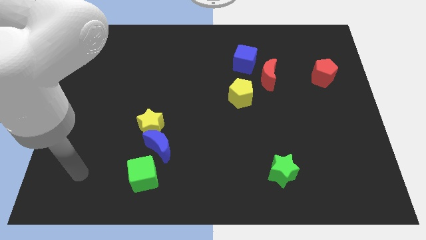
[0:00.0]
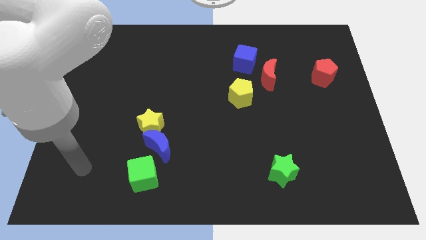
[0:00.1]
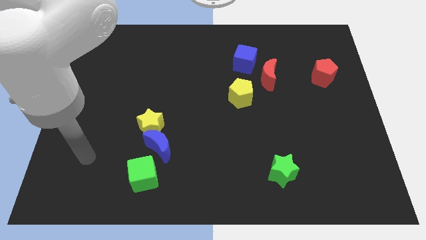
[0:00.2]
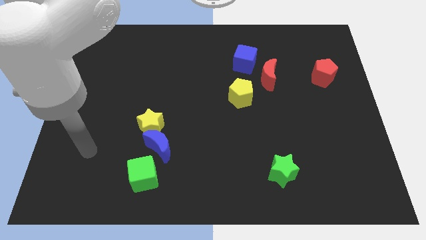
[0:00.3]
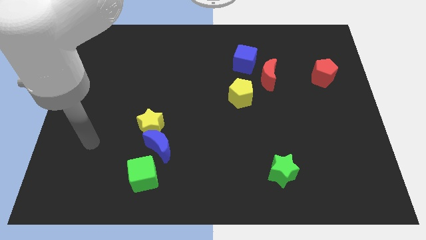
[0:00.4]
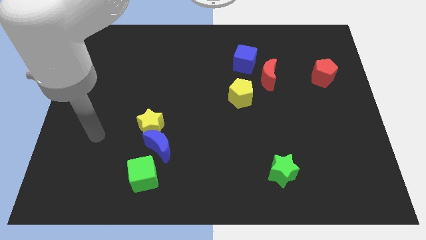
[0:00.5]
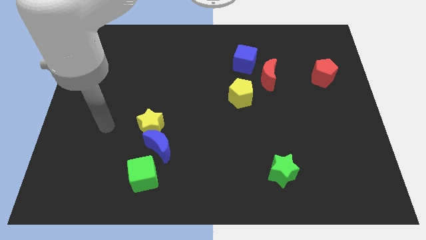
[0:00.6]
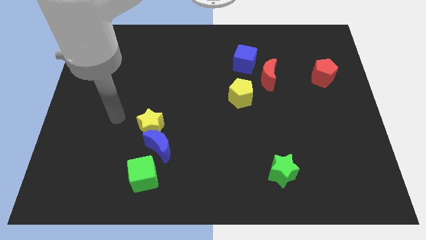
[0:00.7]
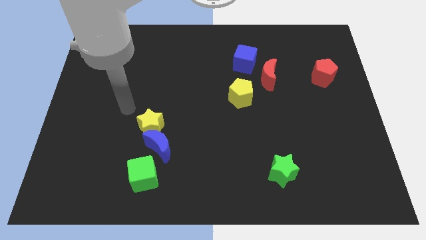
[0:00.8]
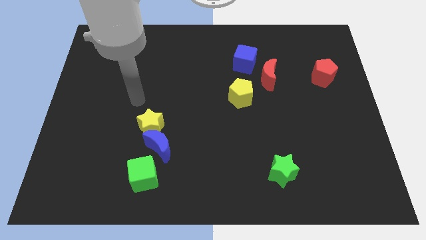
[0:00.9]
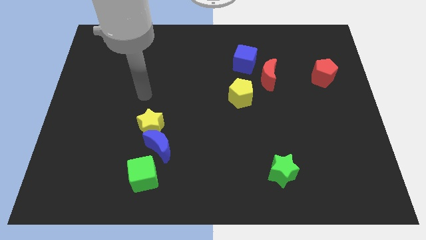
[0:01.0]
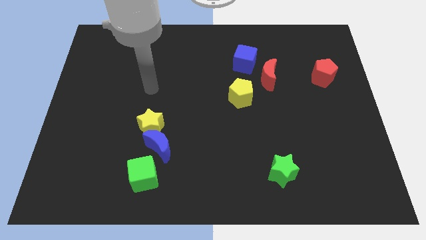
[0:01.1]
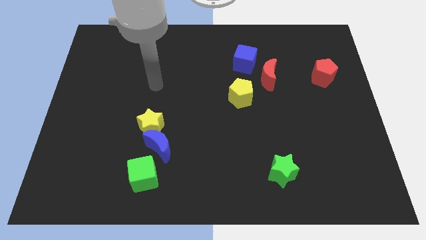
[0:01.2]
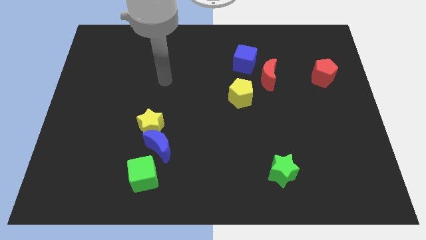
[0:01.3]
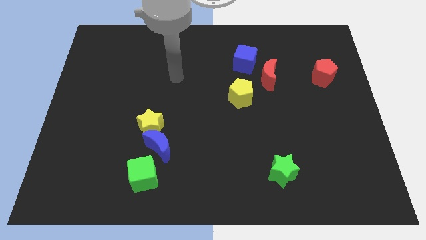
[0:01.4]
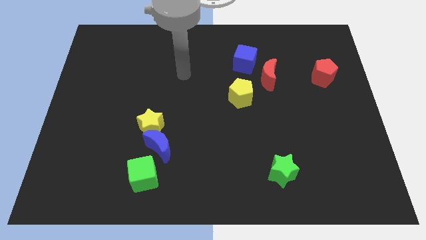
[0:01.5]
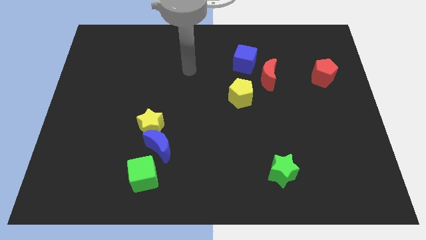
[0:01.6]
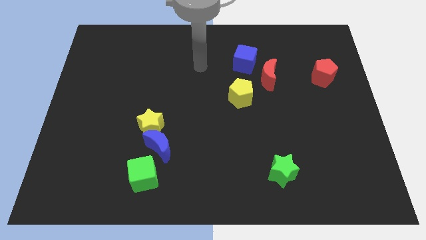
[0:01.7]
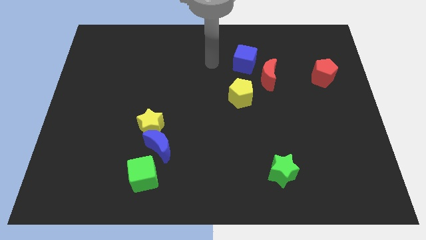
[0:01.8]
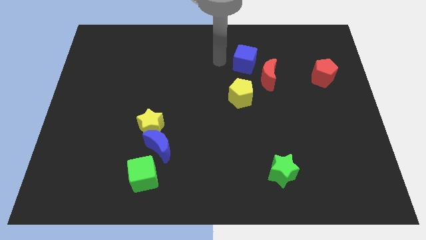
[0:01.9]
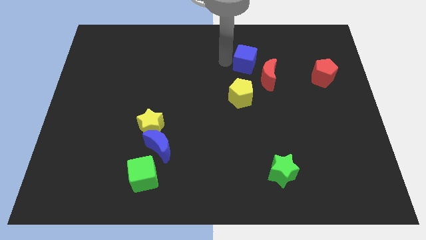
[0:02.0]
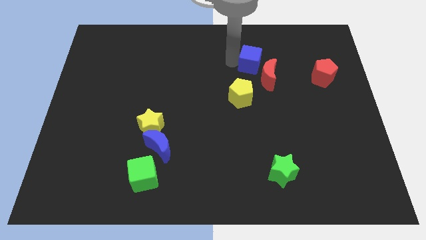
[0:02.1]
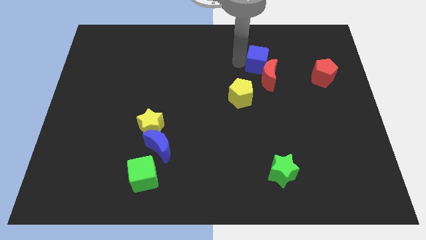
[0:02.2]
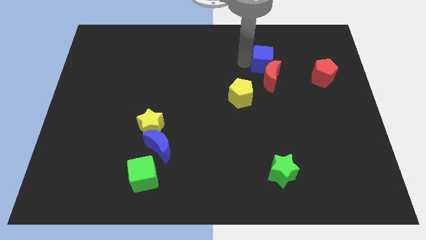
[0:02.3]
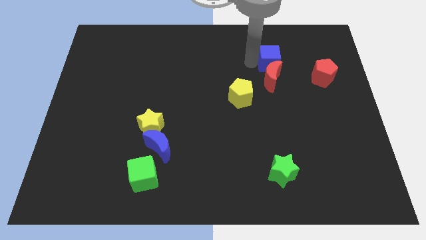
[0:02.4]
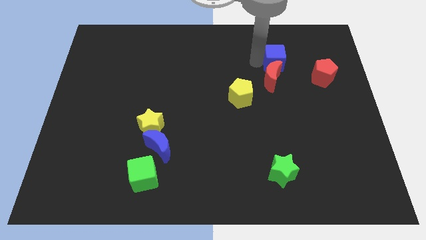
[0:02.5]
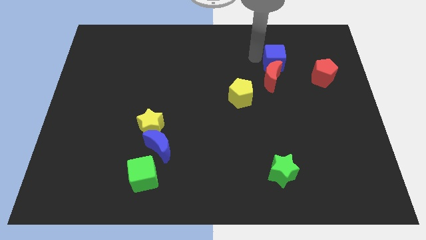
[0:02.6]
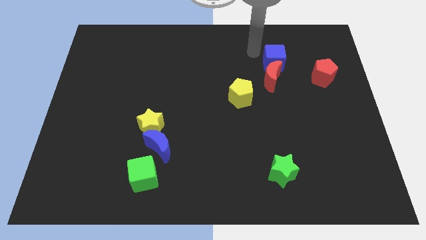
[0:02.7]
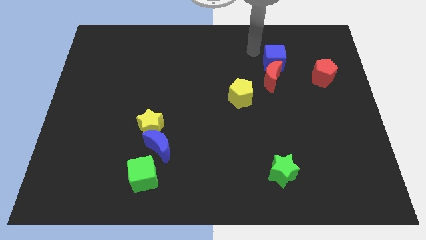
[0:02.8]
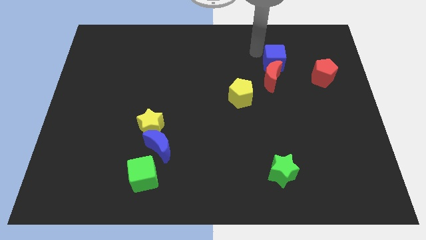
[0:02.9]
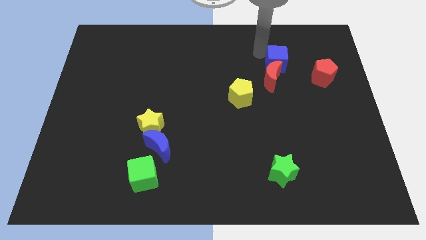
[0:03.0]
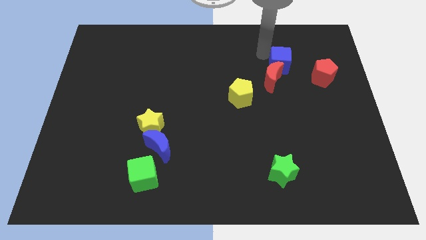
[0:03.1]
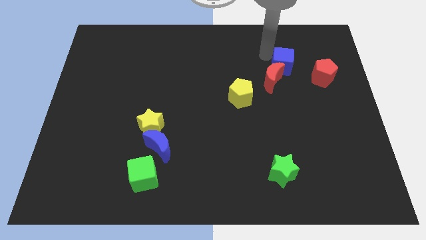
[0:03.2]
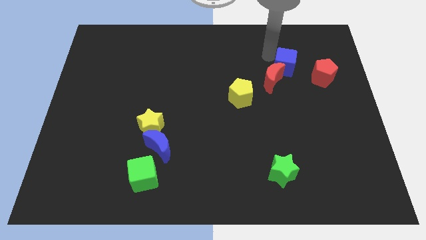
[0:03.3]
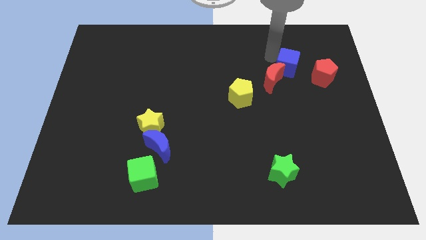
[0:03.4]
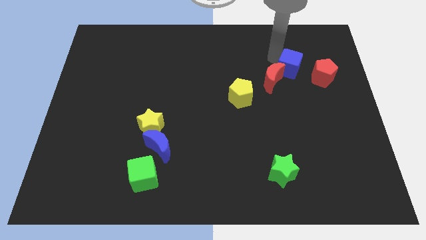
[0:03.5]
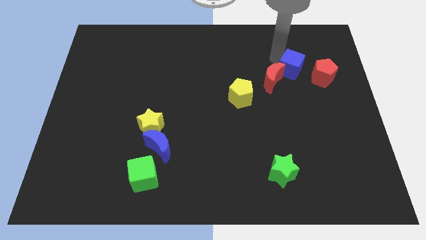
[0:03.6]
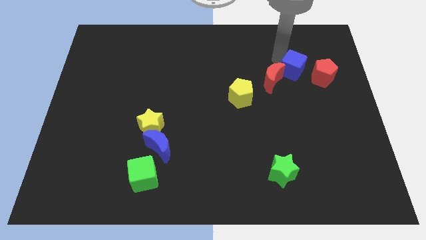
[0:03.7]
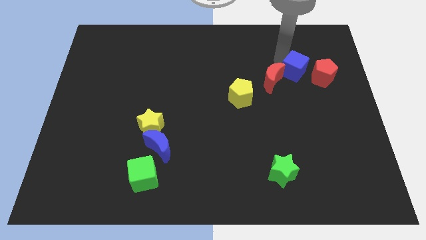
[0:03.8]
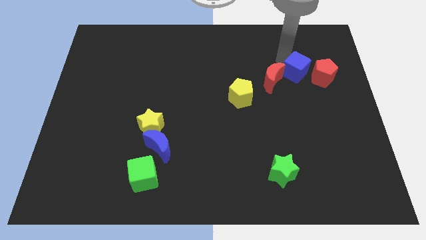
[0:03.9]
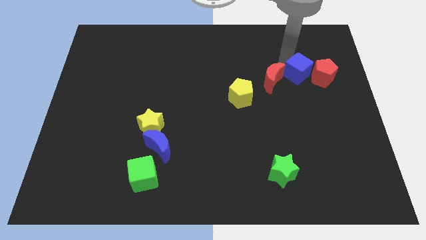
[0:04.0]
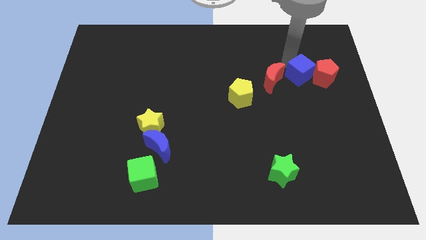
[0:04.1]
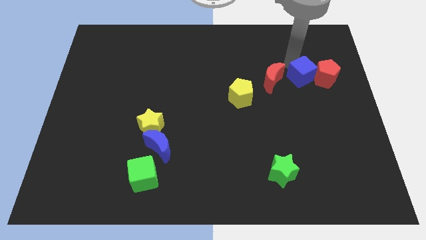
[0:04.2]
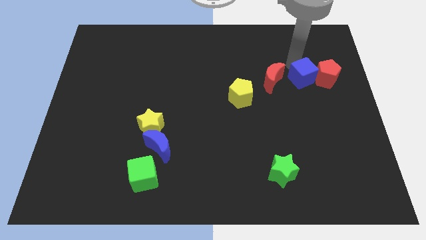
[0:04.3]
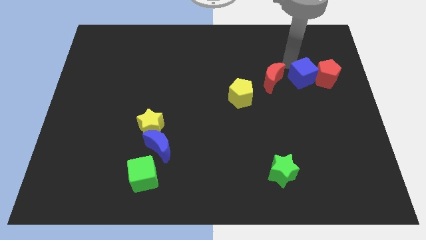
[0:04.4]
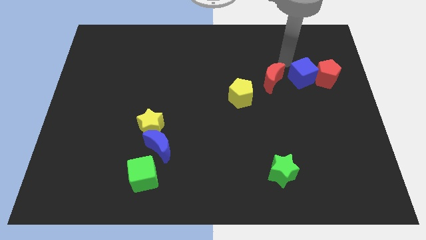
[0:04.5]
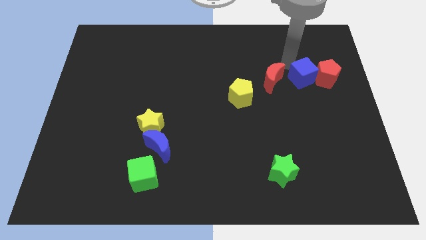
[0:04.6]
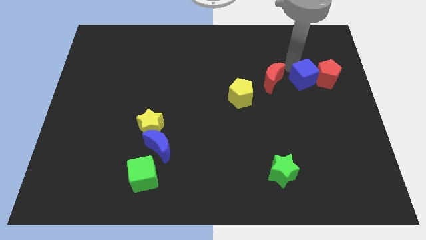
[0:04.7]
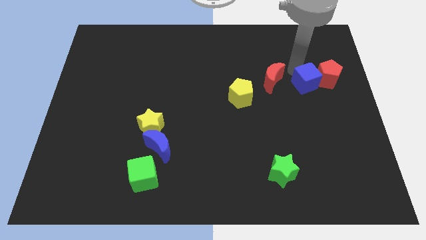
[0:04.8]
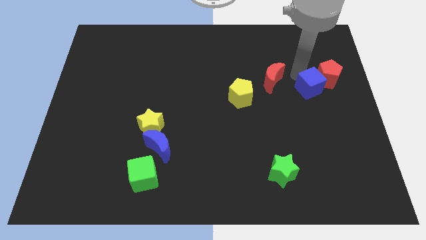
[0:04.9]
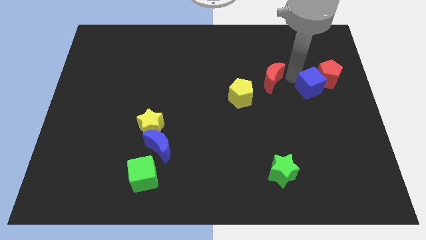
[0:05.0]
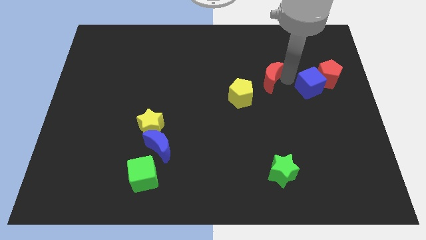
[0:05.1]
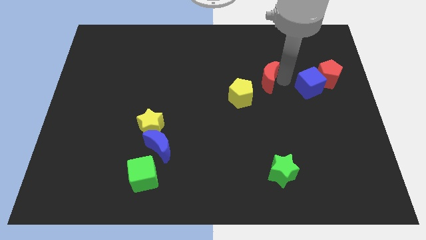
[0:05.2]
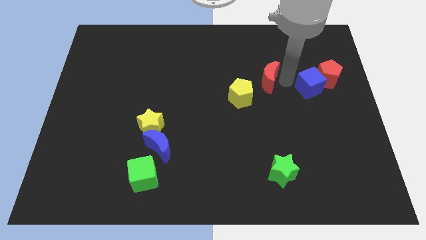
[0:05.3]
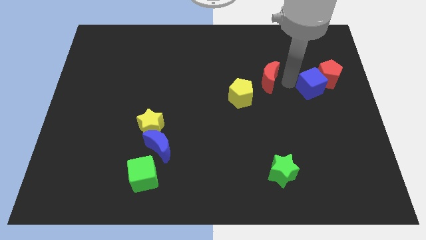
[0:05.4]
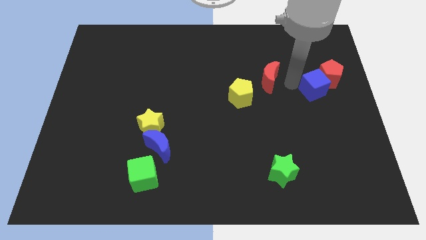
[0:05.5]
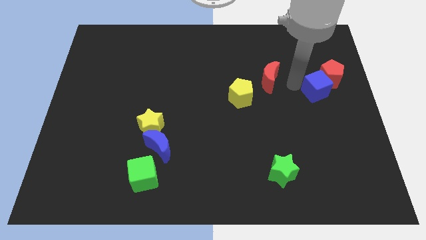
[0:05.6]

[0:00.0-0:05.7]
put the blue cube to the center right

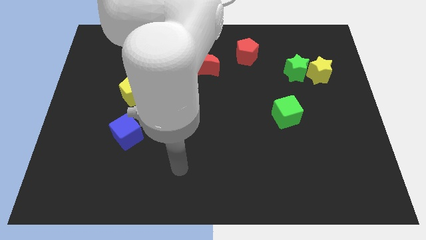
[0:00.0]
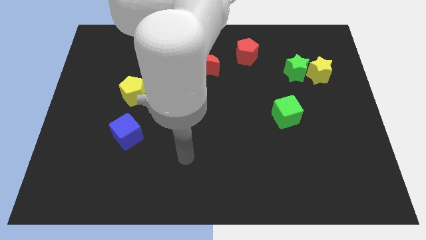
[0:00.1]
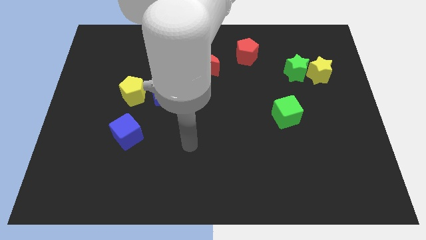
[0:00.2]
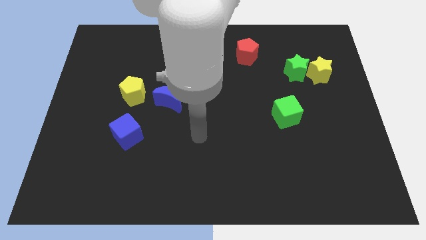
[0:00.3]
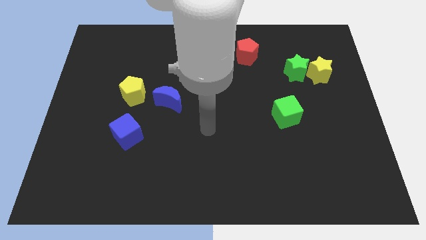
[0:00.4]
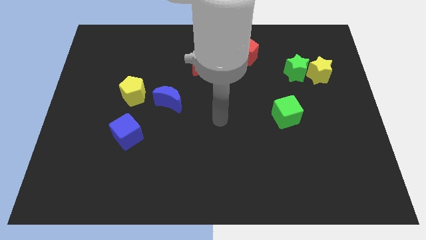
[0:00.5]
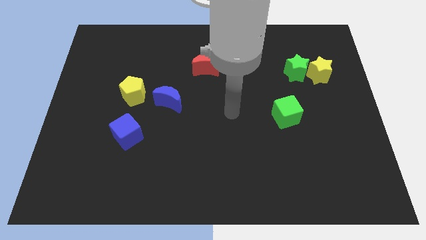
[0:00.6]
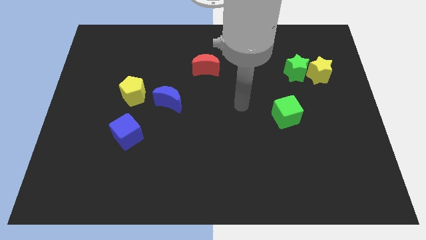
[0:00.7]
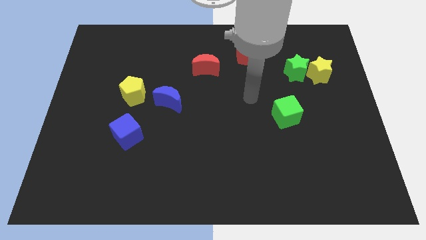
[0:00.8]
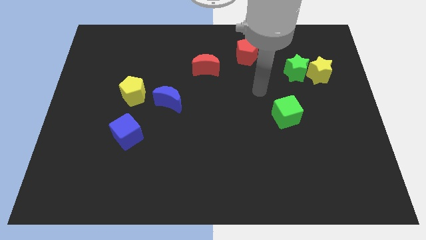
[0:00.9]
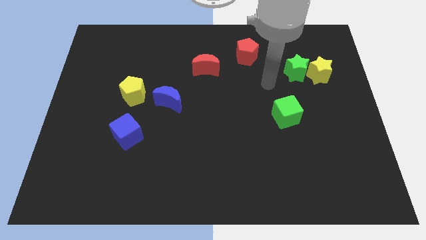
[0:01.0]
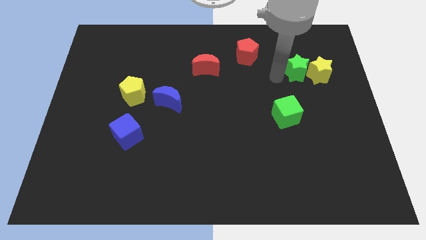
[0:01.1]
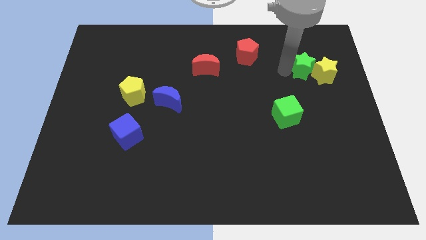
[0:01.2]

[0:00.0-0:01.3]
move the yellow star to the right side of the board
